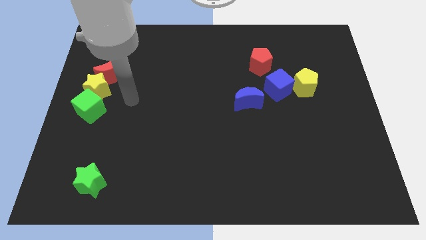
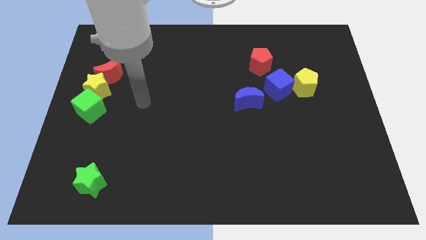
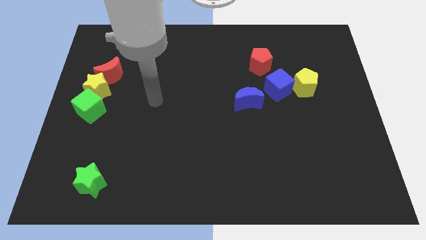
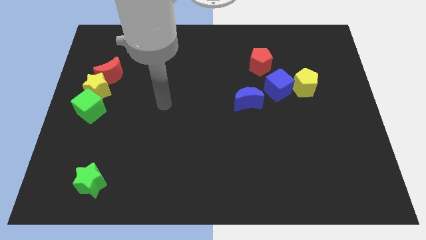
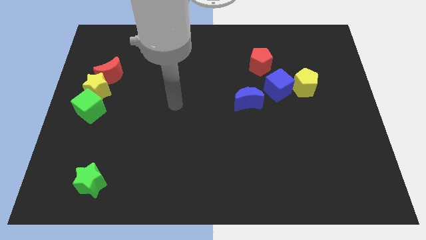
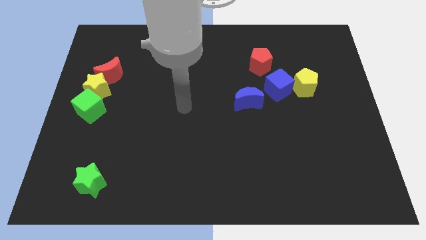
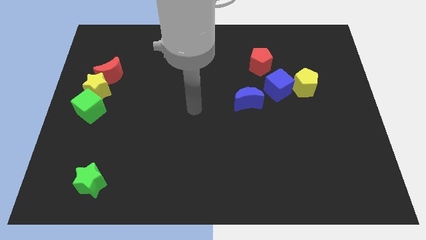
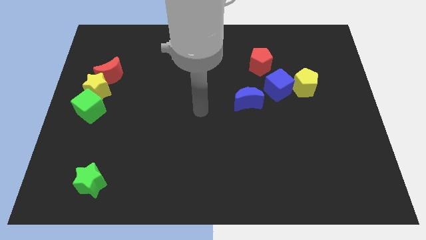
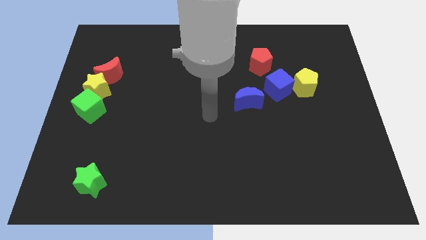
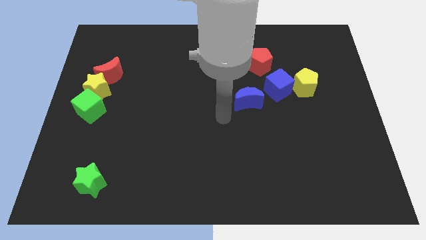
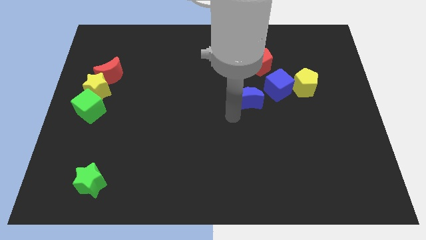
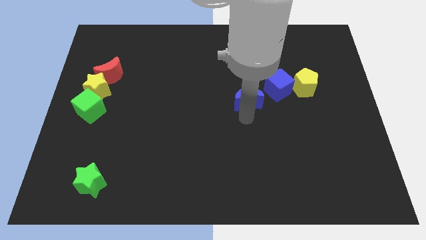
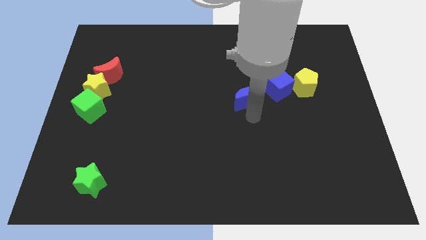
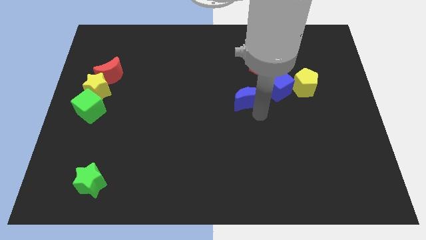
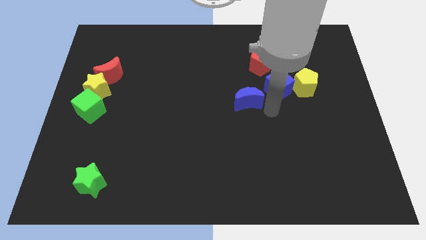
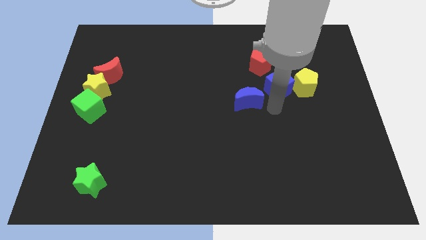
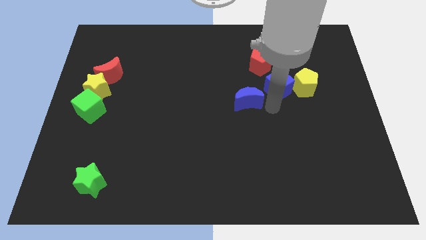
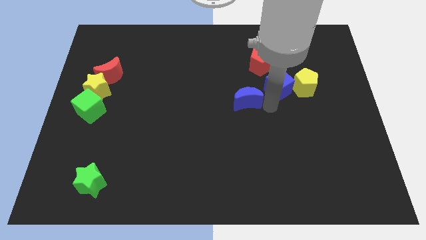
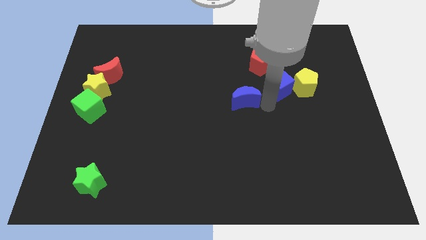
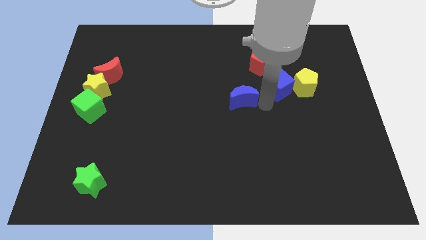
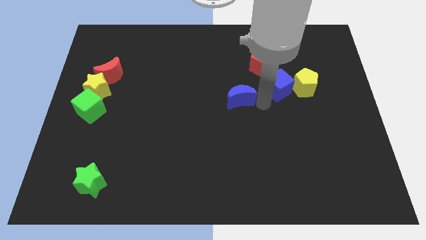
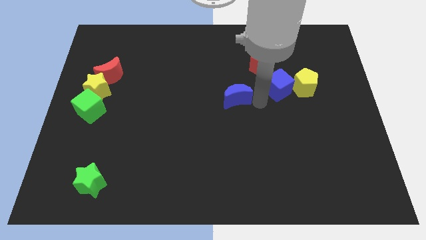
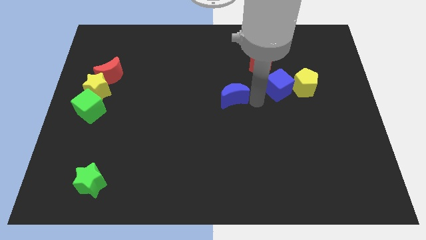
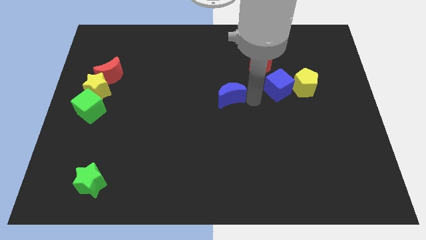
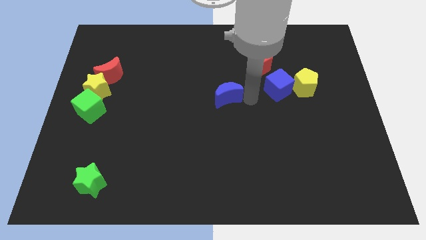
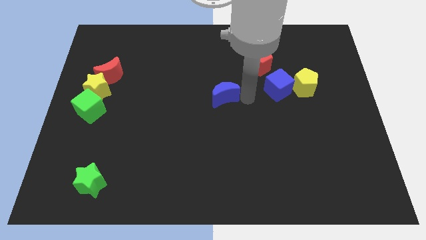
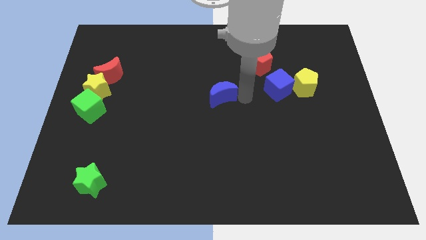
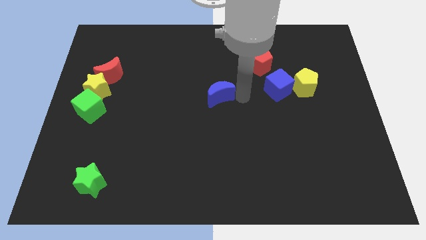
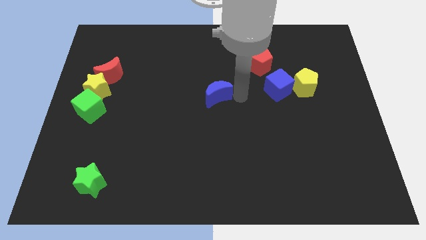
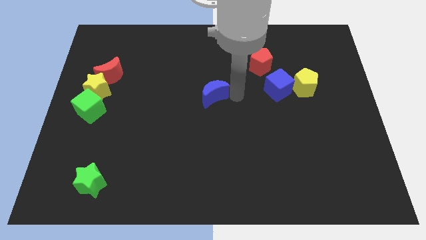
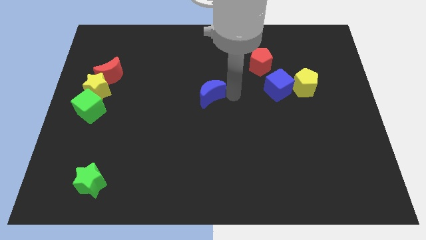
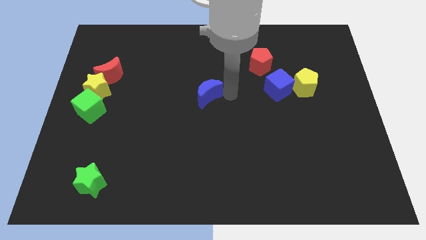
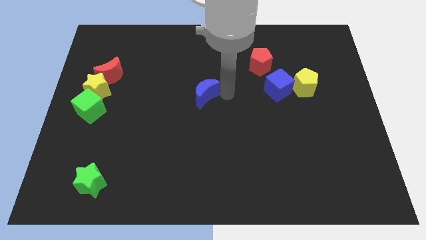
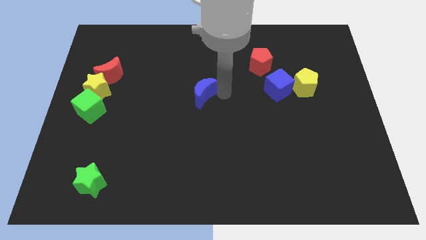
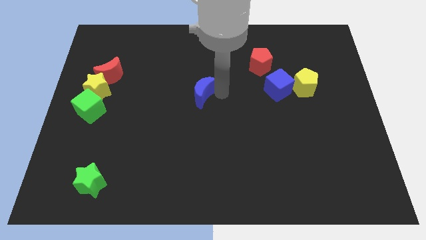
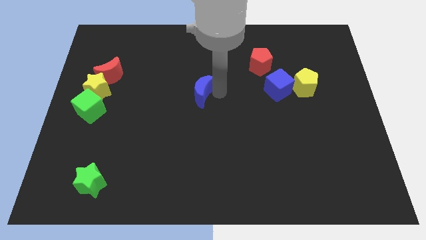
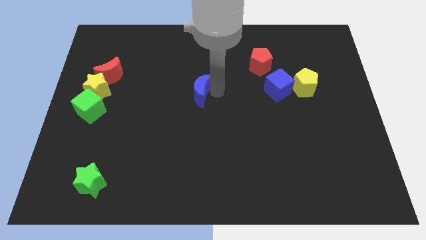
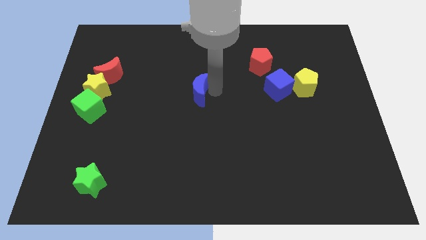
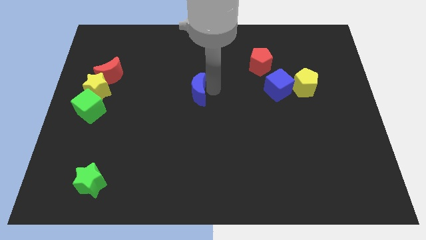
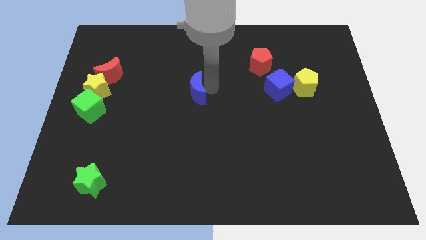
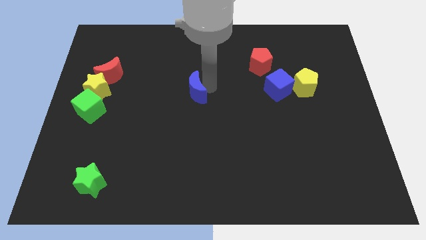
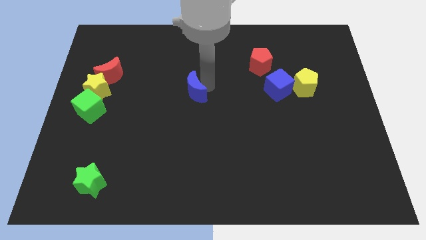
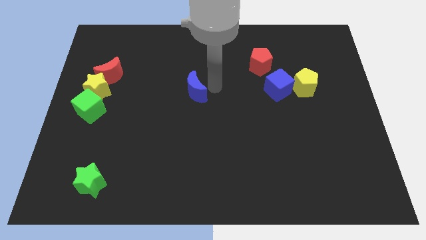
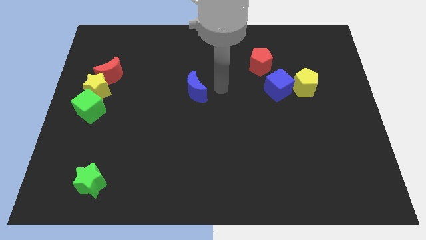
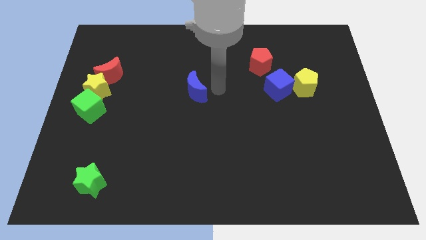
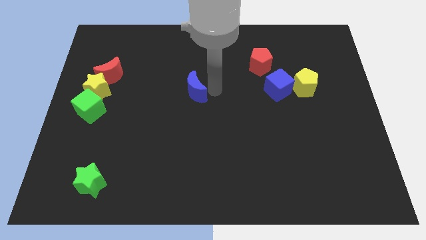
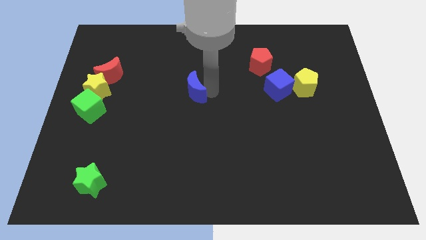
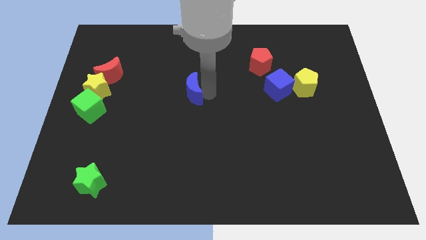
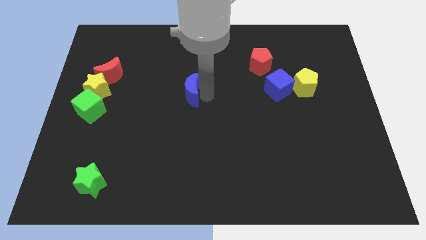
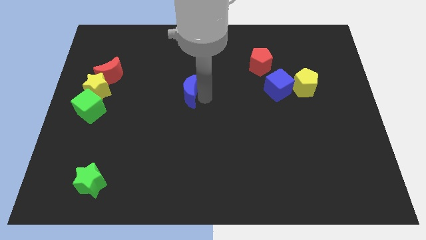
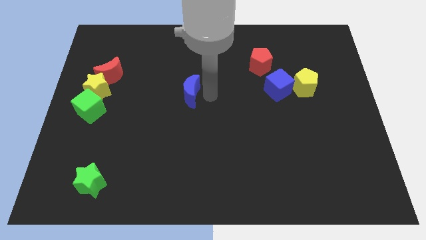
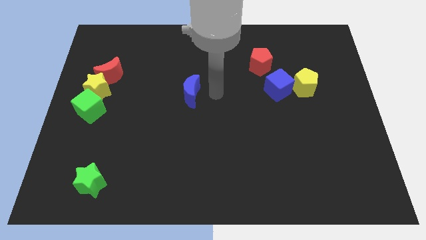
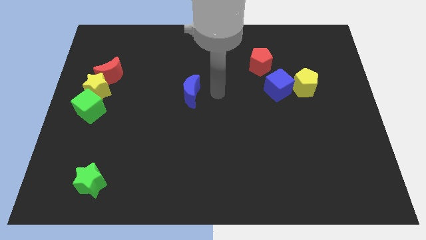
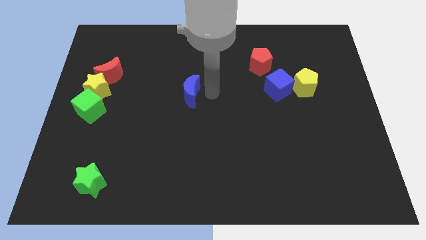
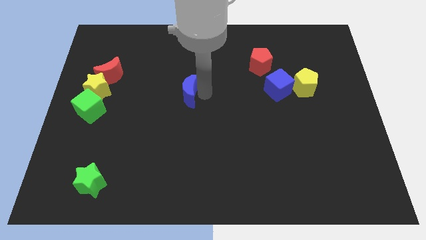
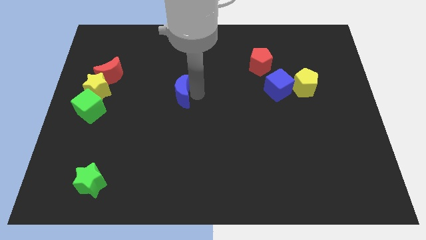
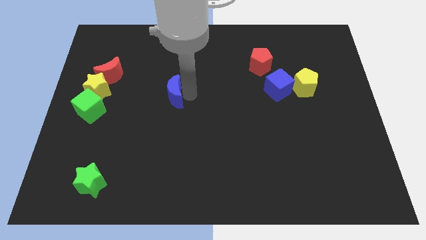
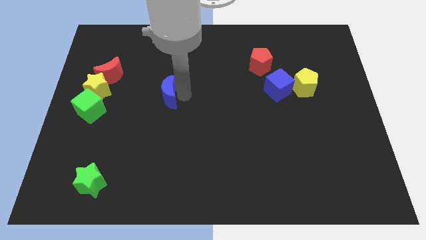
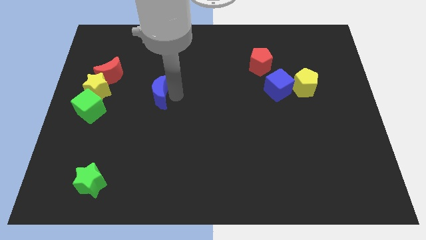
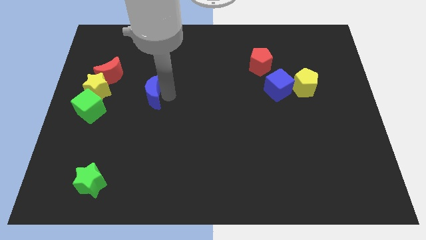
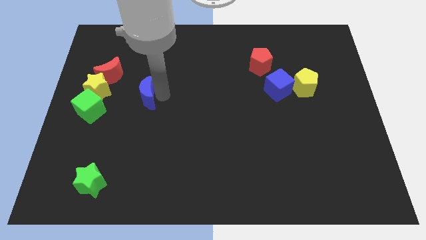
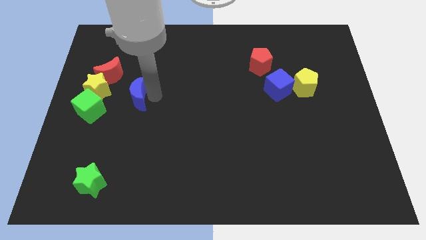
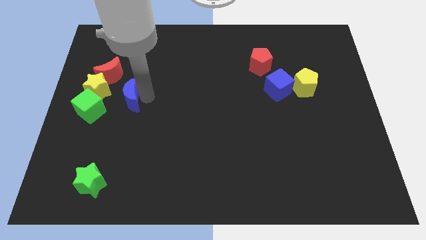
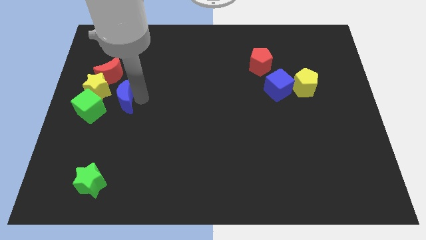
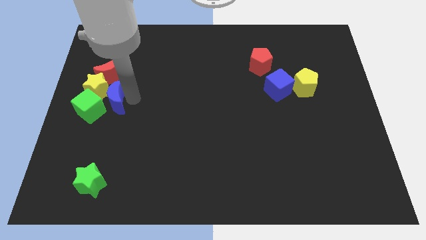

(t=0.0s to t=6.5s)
put the blue moon close to the green cube

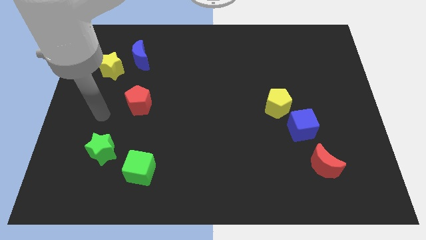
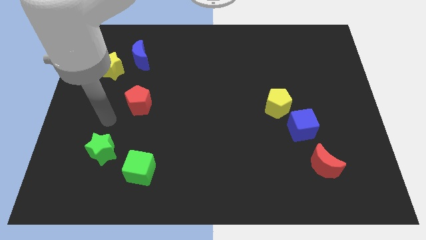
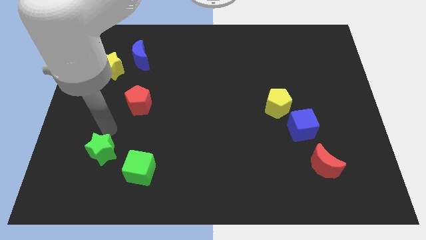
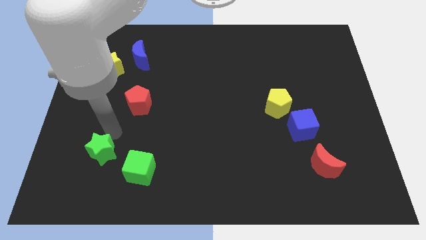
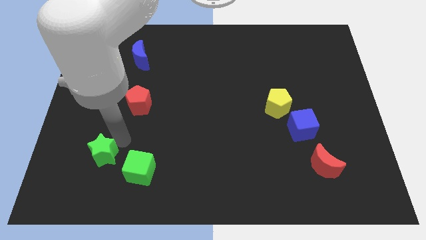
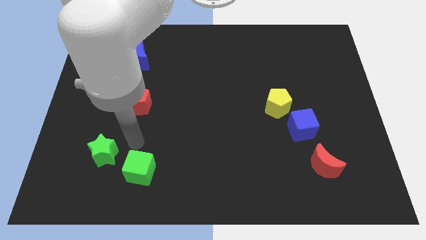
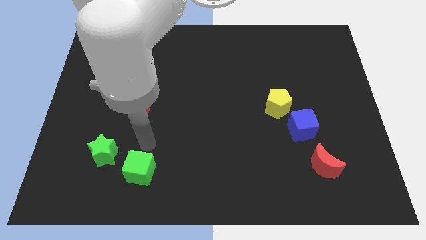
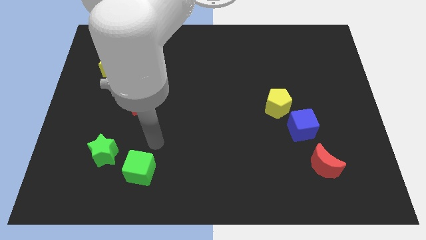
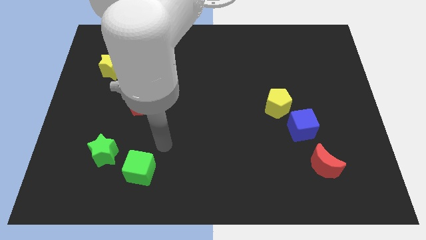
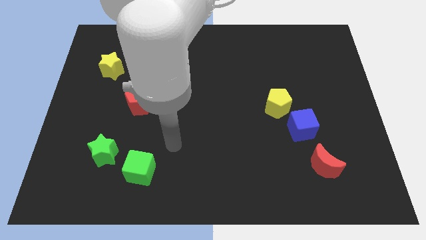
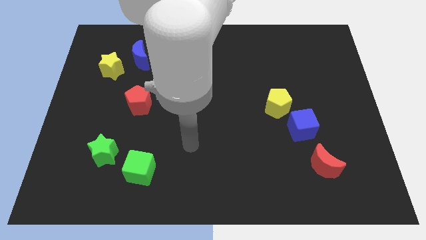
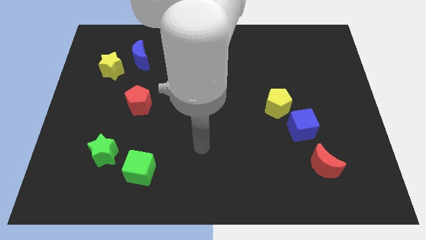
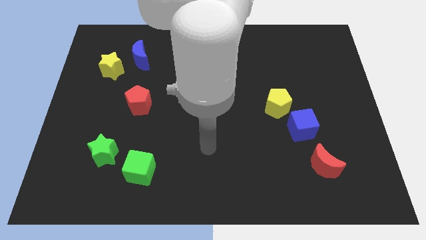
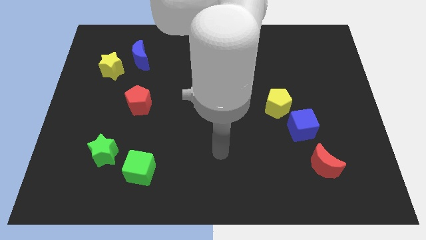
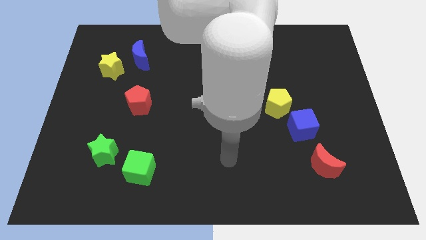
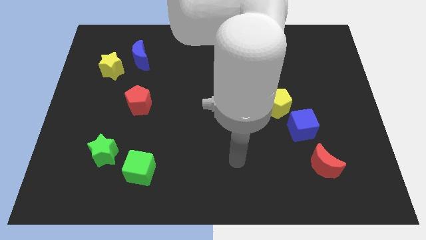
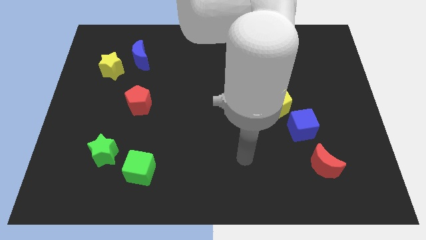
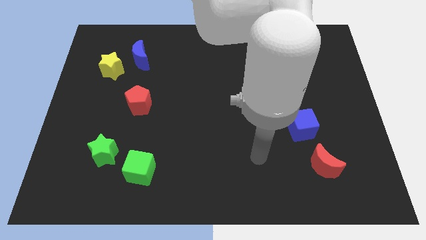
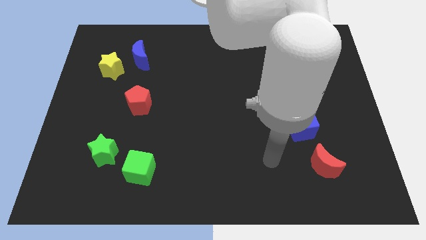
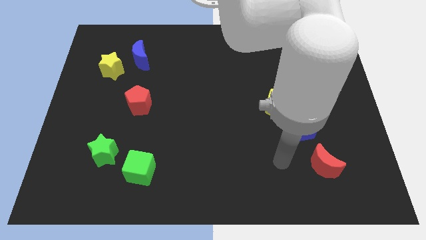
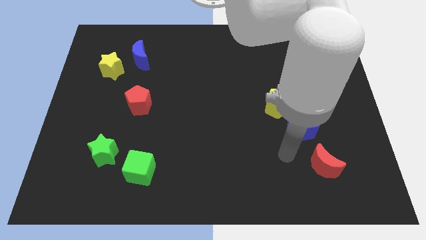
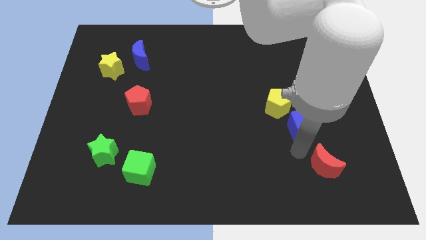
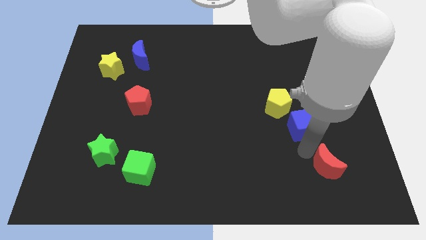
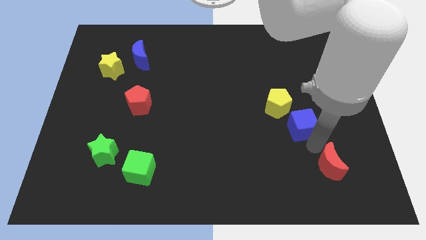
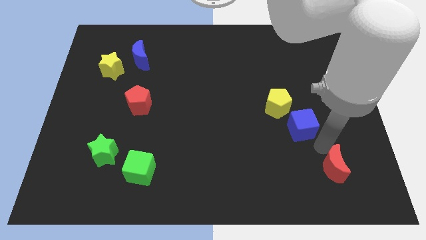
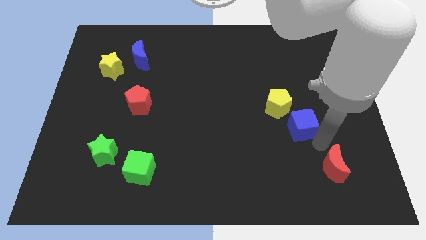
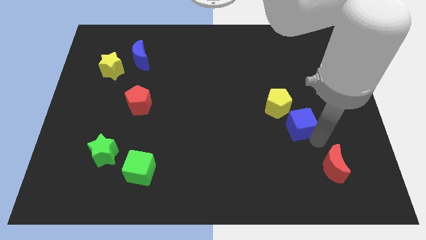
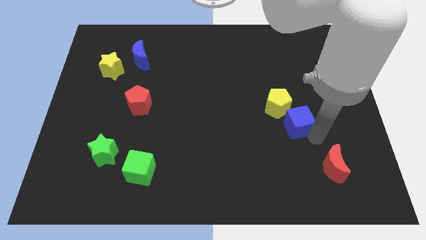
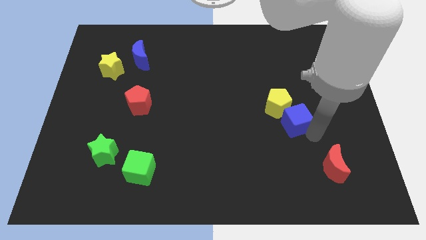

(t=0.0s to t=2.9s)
put the blue cube next to the yellow pentagon
